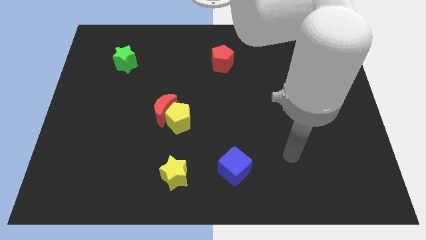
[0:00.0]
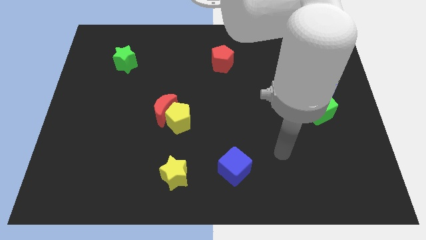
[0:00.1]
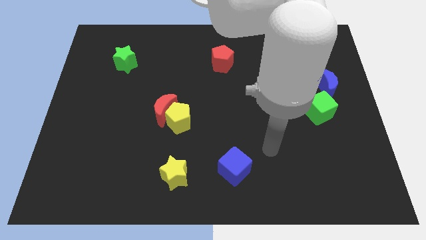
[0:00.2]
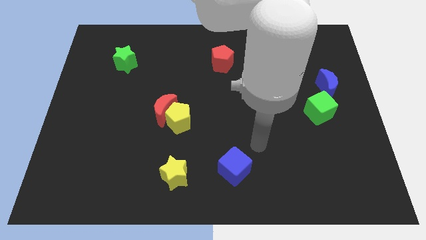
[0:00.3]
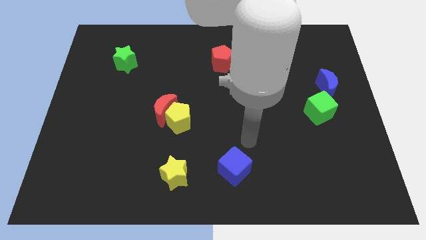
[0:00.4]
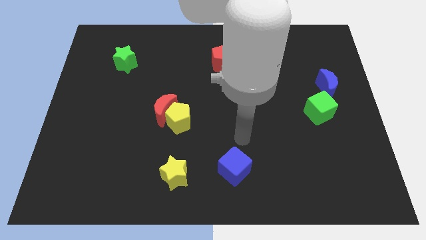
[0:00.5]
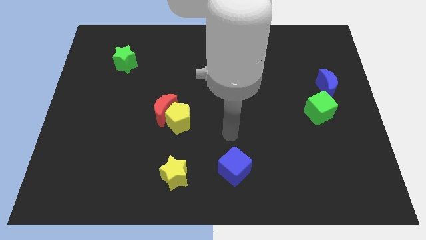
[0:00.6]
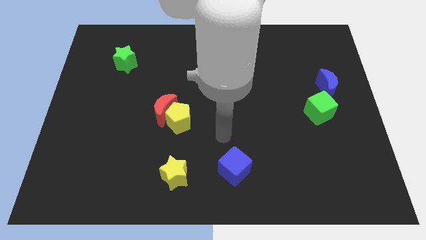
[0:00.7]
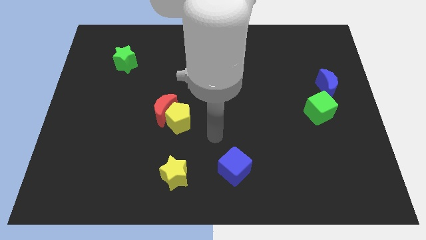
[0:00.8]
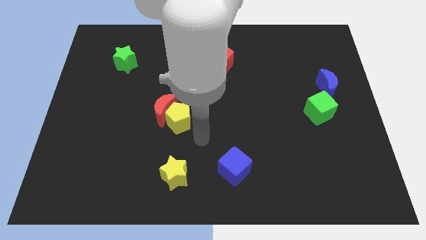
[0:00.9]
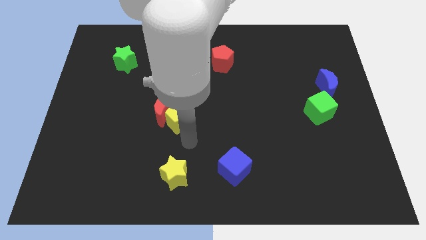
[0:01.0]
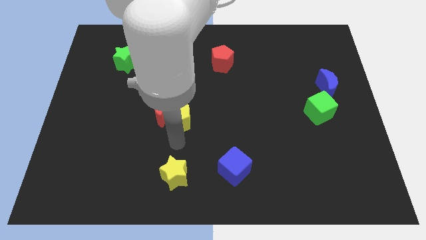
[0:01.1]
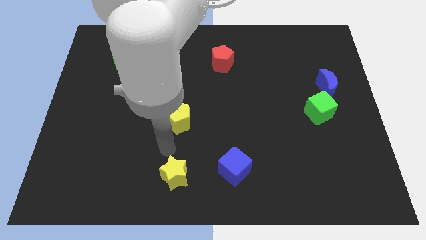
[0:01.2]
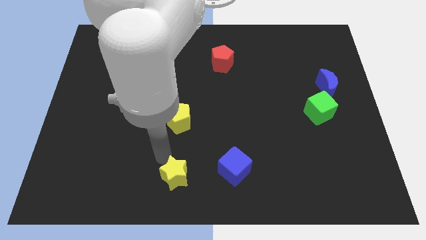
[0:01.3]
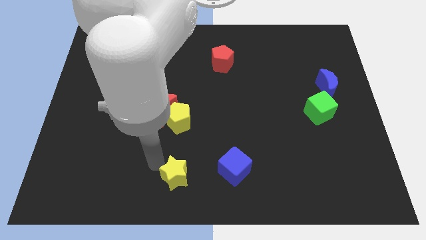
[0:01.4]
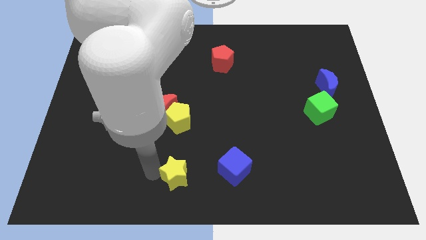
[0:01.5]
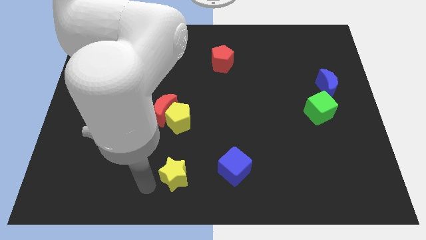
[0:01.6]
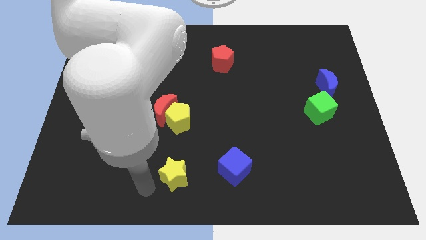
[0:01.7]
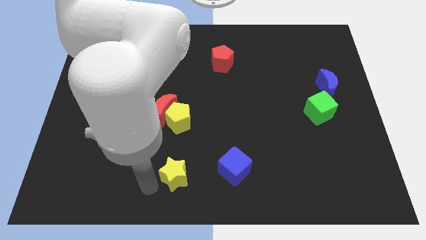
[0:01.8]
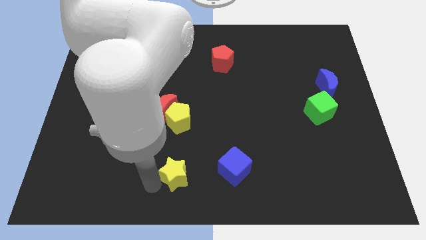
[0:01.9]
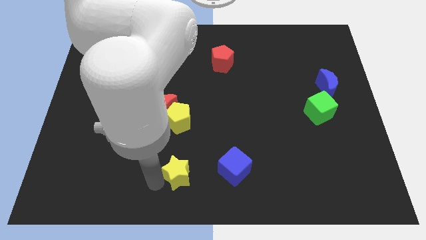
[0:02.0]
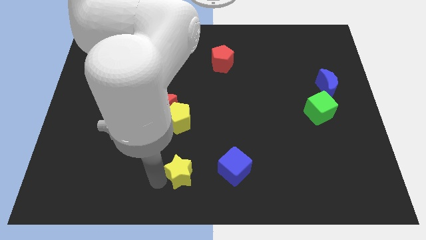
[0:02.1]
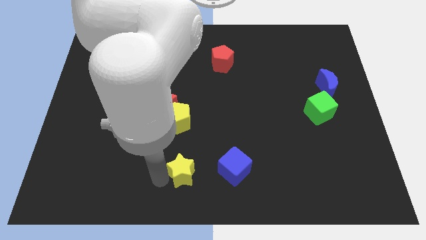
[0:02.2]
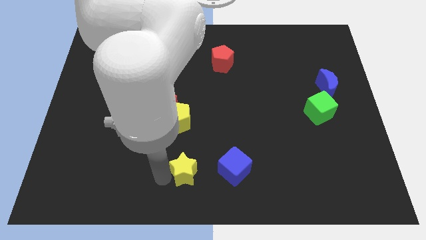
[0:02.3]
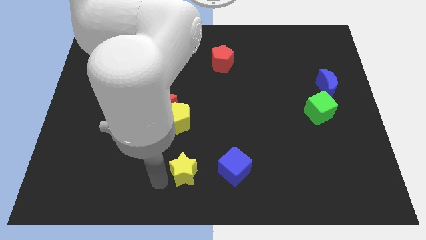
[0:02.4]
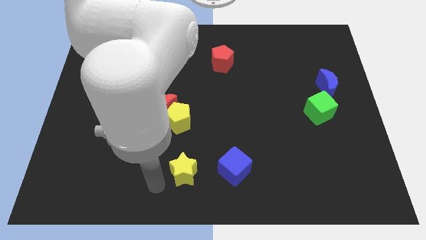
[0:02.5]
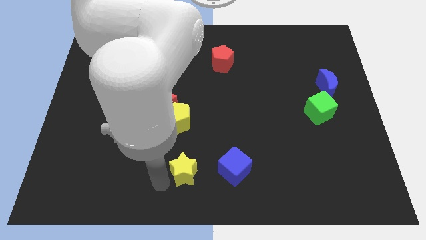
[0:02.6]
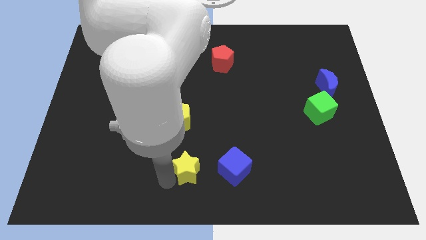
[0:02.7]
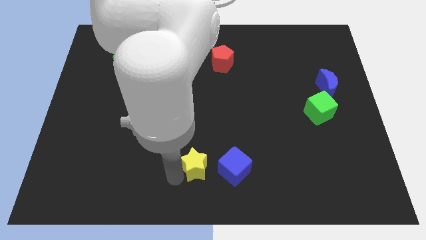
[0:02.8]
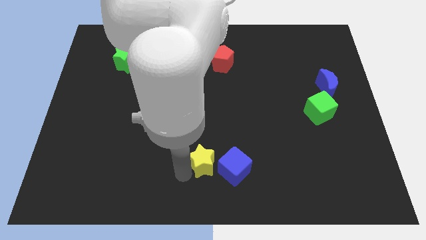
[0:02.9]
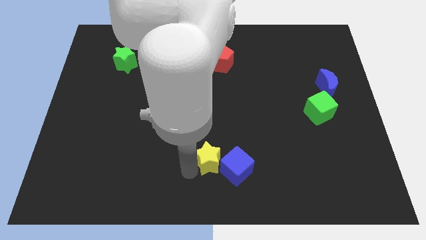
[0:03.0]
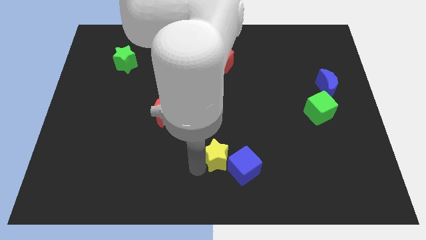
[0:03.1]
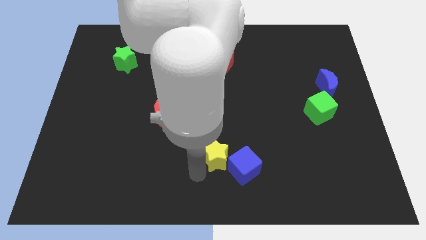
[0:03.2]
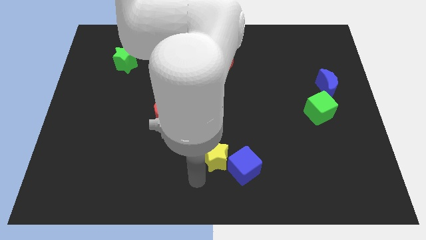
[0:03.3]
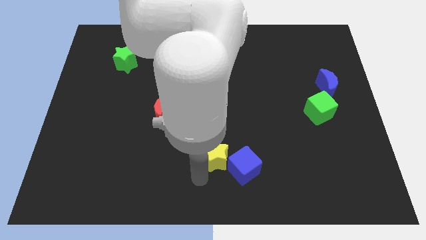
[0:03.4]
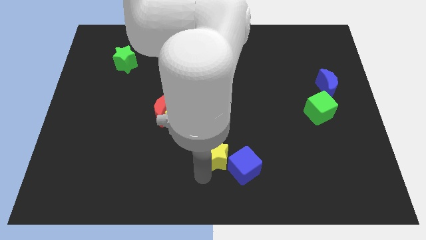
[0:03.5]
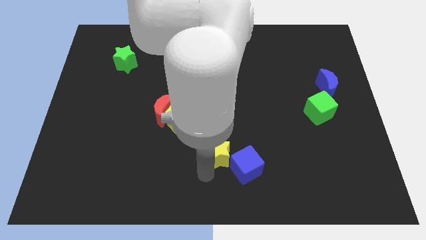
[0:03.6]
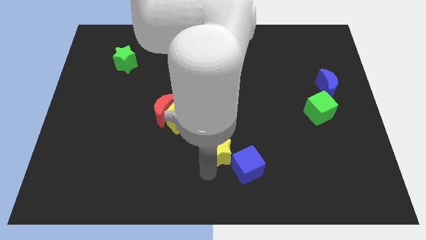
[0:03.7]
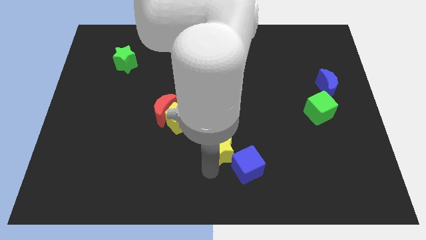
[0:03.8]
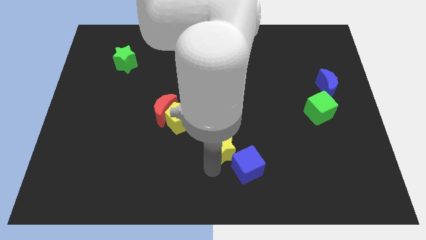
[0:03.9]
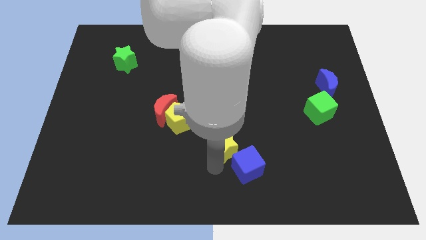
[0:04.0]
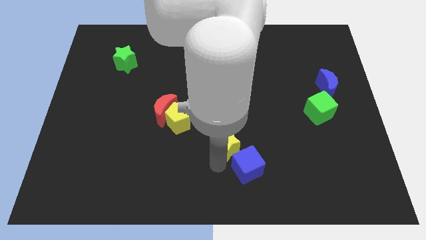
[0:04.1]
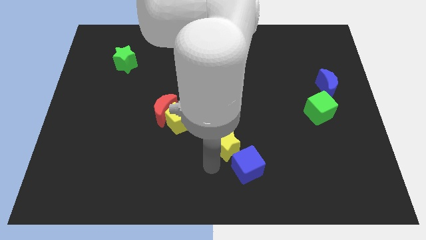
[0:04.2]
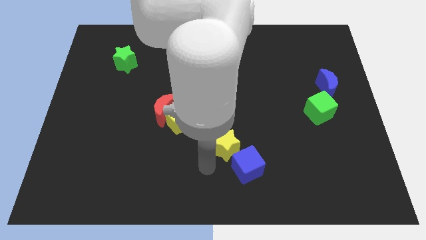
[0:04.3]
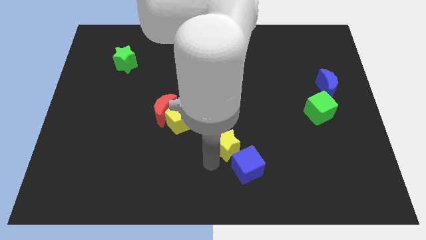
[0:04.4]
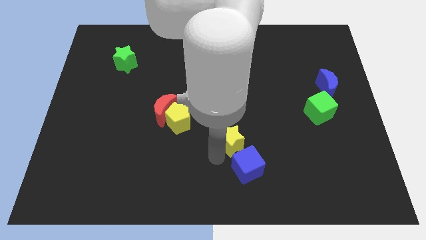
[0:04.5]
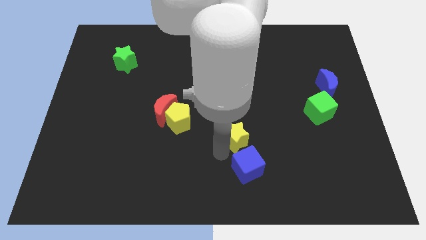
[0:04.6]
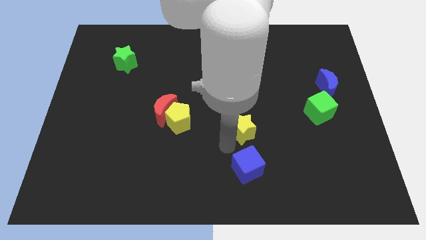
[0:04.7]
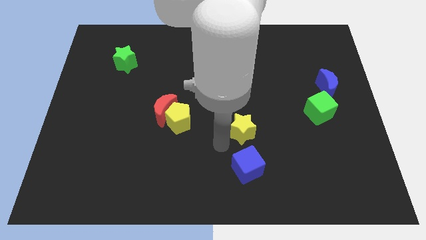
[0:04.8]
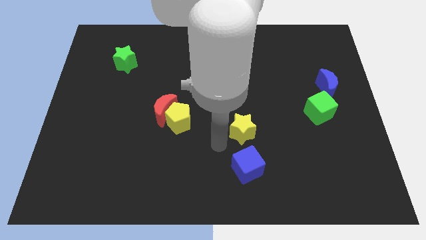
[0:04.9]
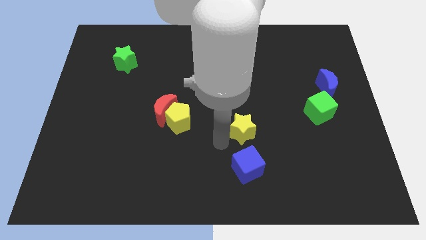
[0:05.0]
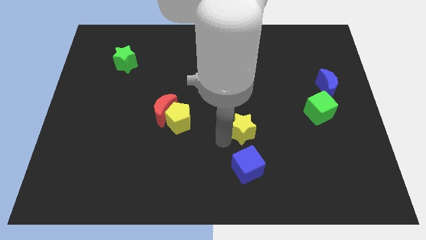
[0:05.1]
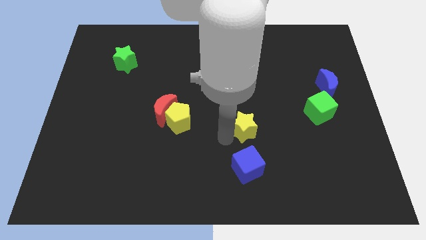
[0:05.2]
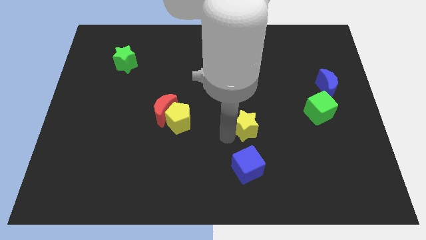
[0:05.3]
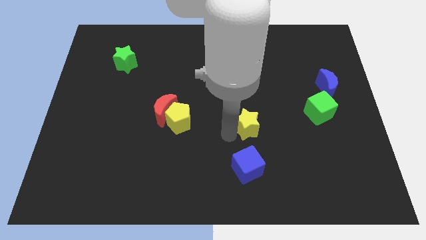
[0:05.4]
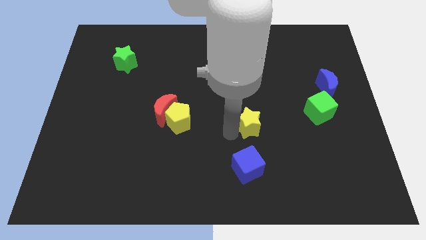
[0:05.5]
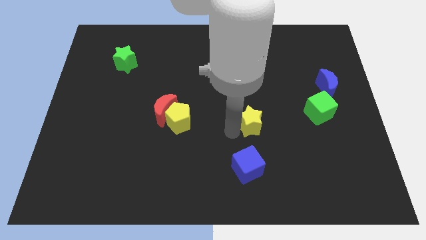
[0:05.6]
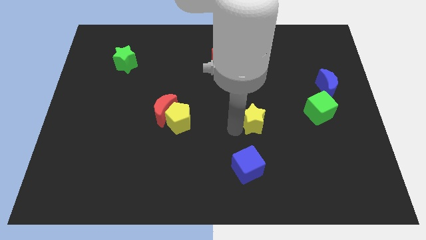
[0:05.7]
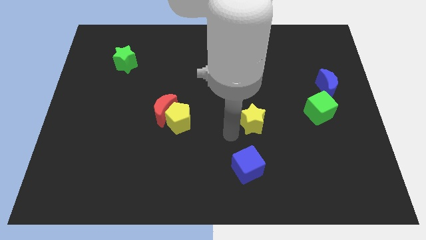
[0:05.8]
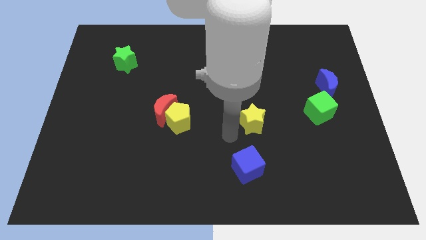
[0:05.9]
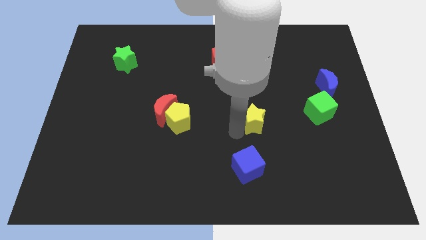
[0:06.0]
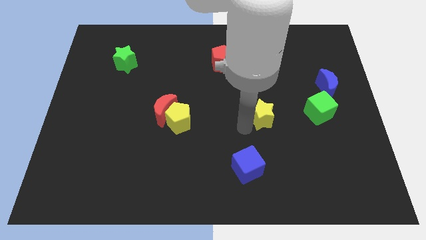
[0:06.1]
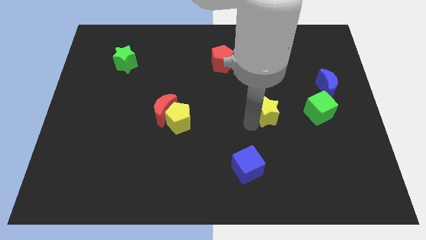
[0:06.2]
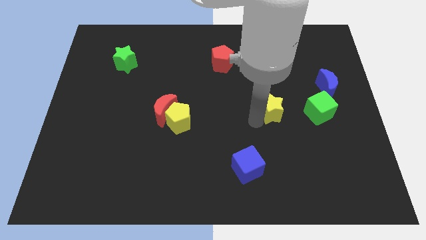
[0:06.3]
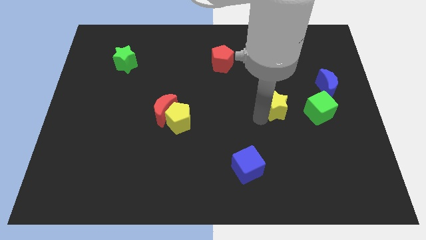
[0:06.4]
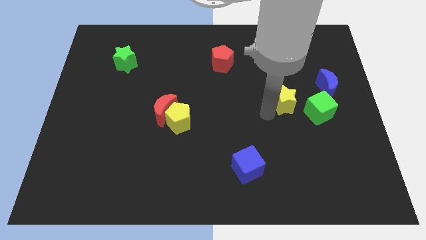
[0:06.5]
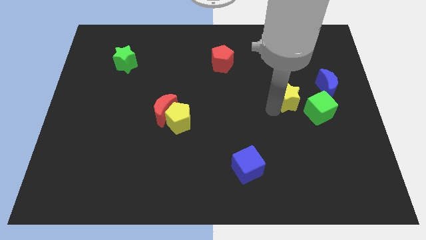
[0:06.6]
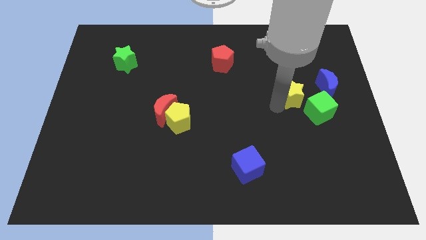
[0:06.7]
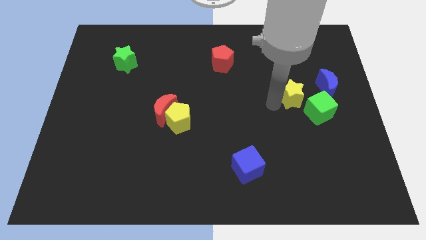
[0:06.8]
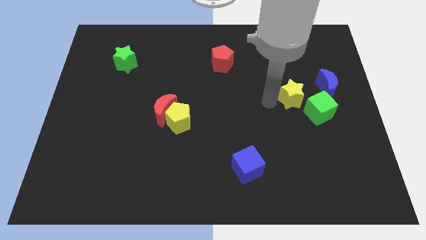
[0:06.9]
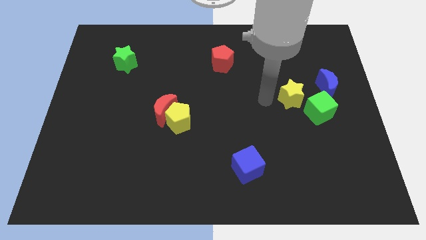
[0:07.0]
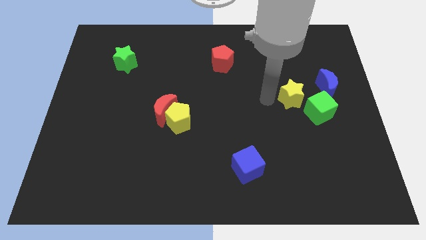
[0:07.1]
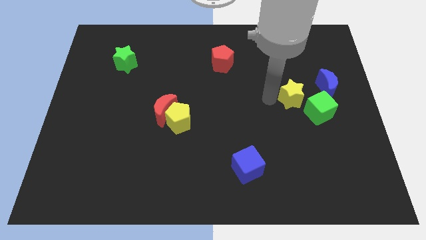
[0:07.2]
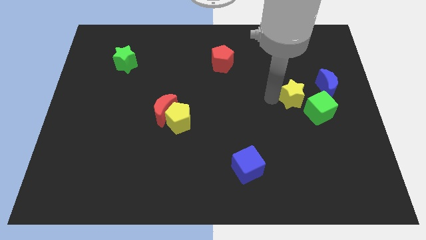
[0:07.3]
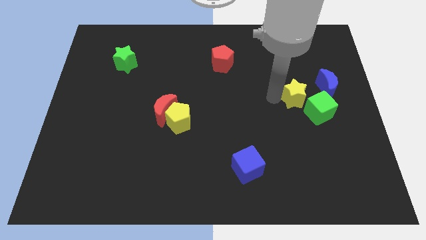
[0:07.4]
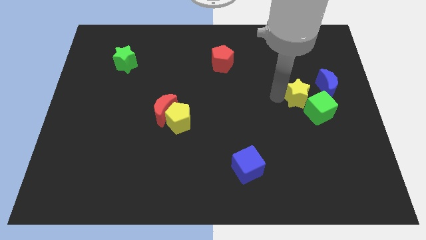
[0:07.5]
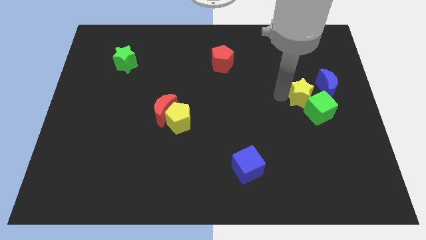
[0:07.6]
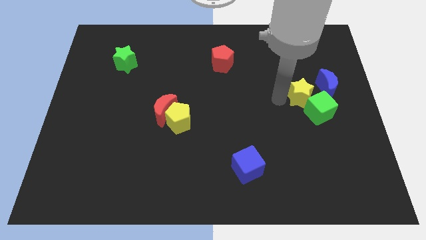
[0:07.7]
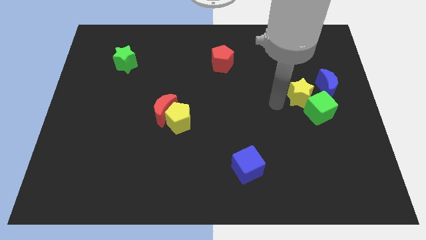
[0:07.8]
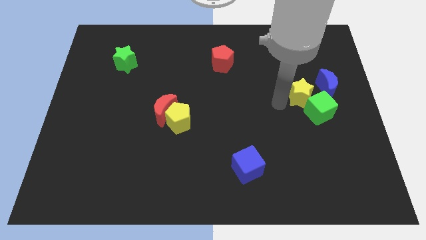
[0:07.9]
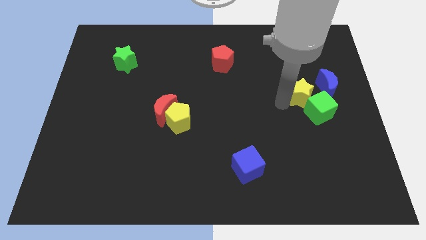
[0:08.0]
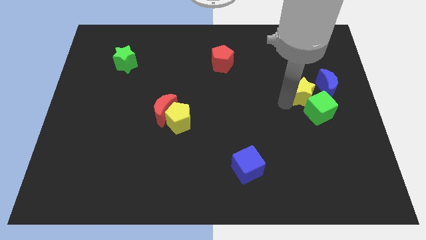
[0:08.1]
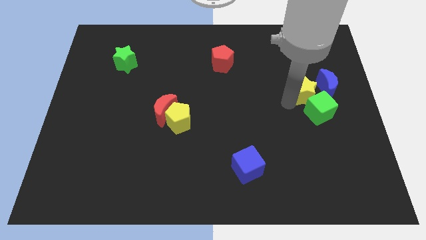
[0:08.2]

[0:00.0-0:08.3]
put the yellow star close to the blue moon
